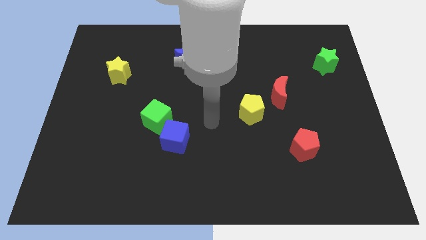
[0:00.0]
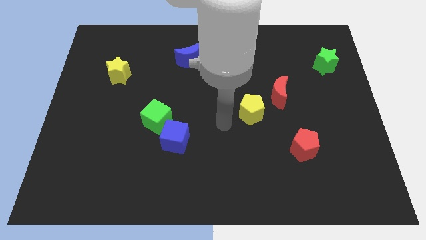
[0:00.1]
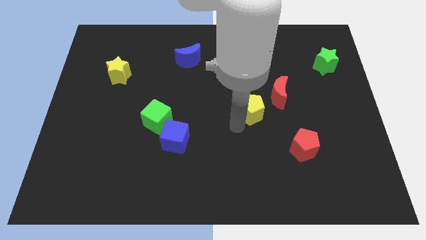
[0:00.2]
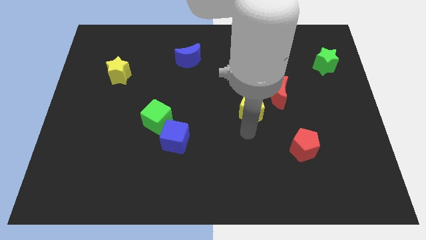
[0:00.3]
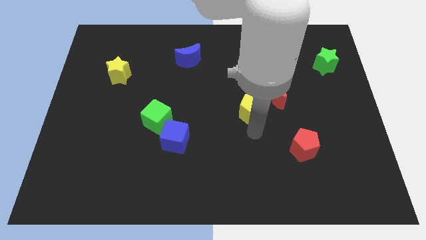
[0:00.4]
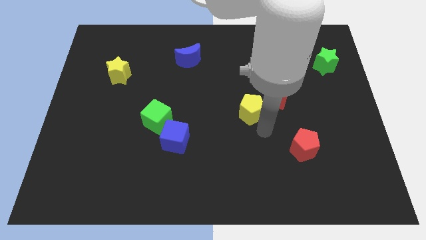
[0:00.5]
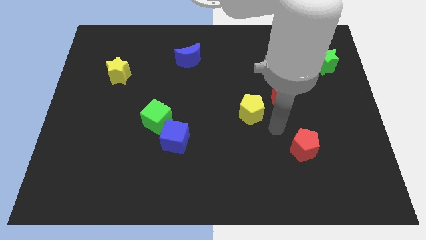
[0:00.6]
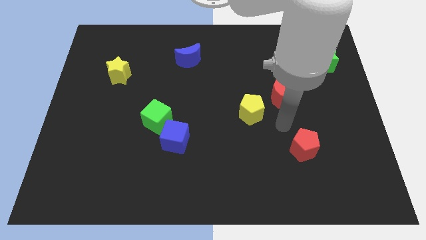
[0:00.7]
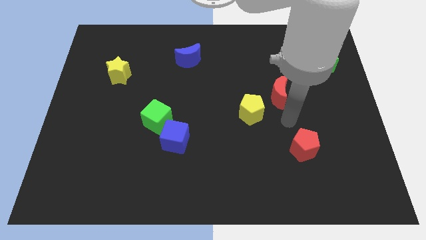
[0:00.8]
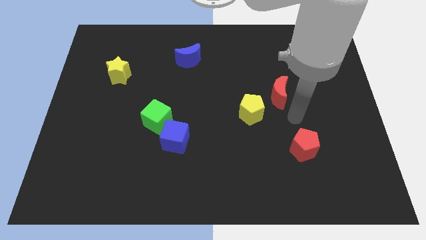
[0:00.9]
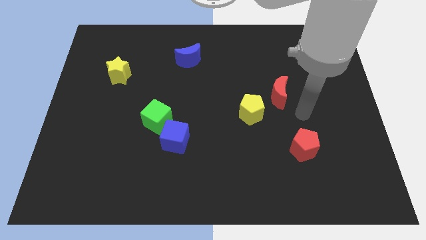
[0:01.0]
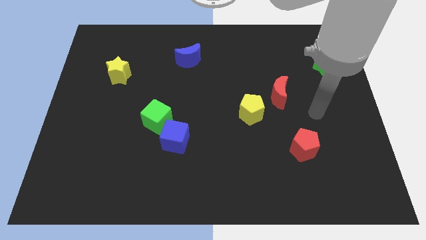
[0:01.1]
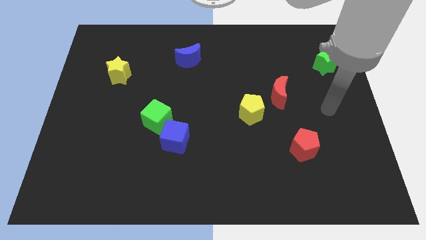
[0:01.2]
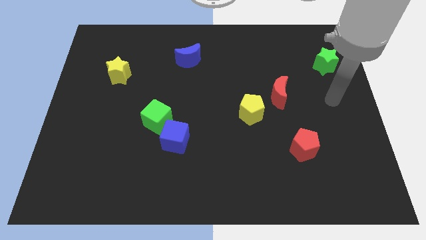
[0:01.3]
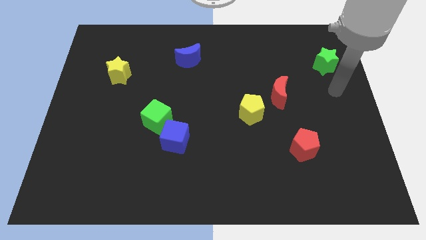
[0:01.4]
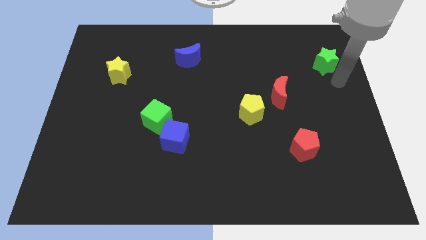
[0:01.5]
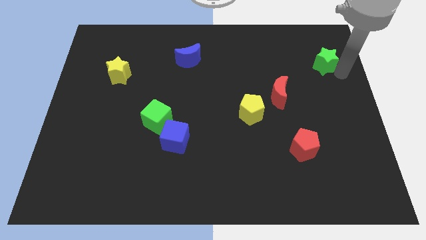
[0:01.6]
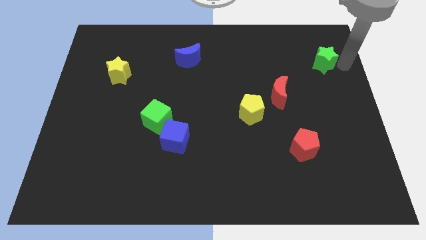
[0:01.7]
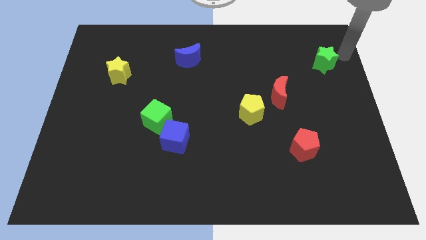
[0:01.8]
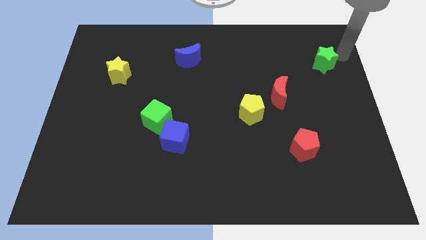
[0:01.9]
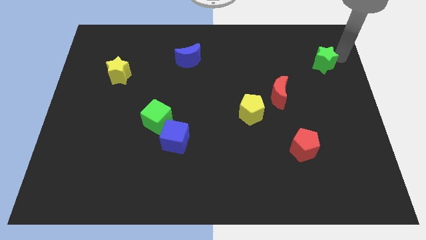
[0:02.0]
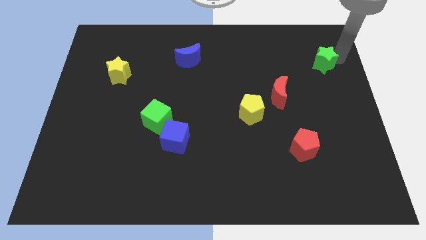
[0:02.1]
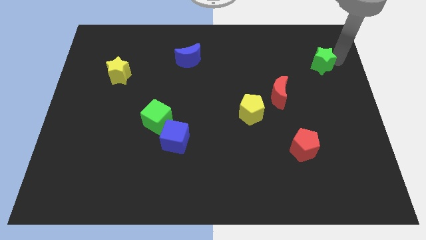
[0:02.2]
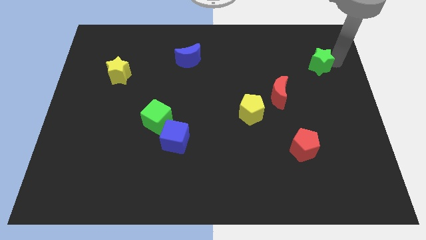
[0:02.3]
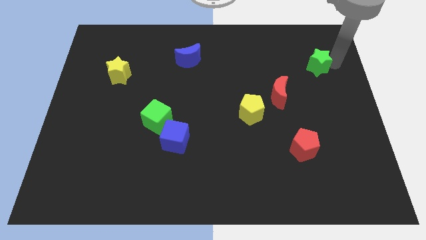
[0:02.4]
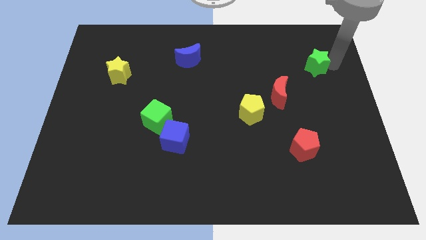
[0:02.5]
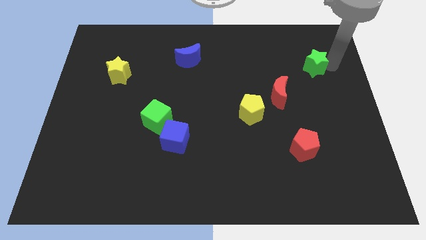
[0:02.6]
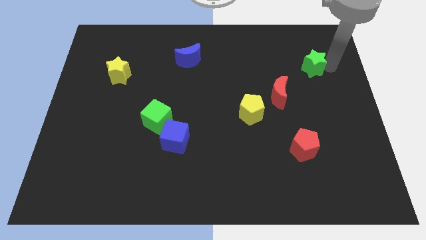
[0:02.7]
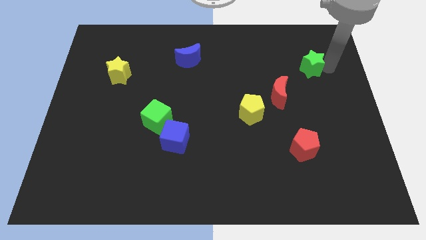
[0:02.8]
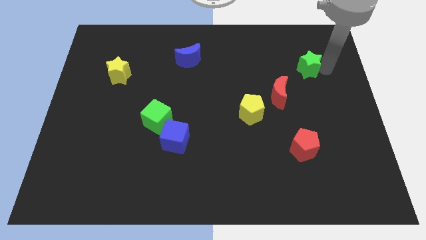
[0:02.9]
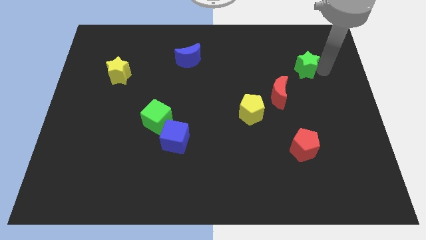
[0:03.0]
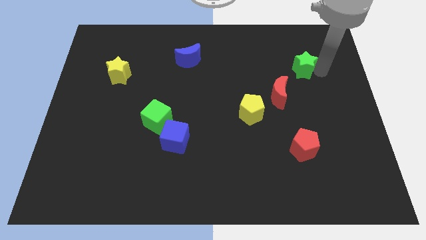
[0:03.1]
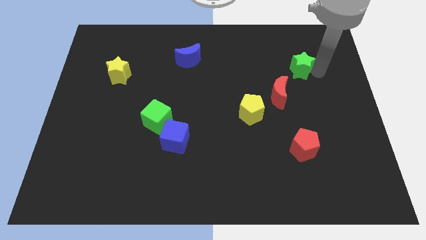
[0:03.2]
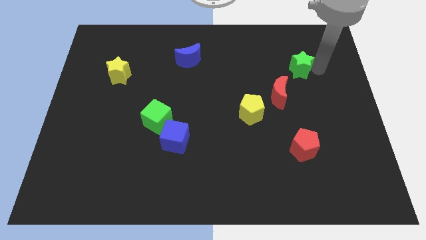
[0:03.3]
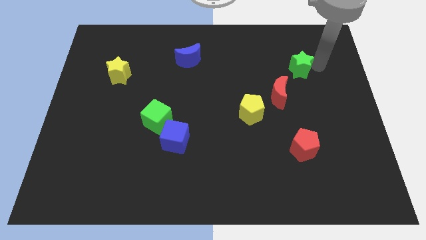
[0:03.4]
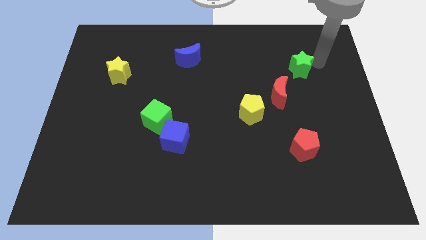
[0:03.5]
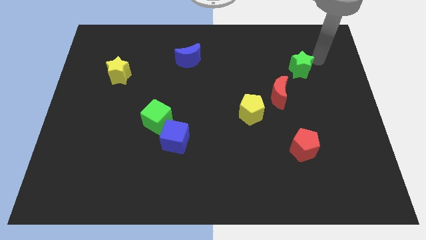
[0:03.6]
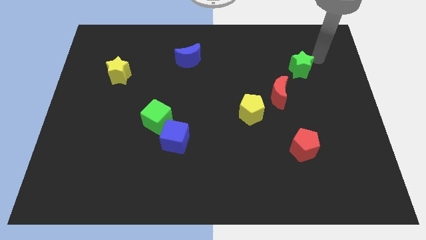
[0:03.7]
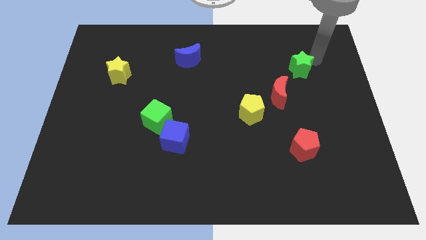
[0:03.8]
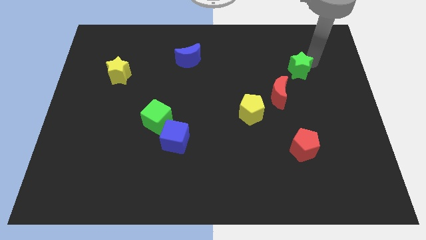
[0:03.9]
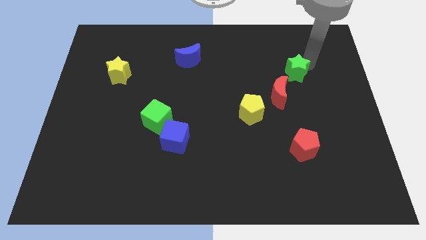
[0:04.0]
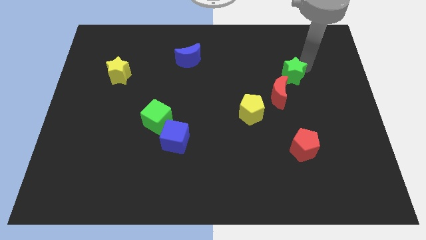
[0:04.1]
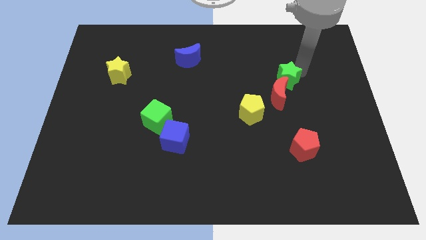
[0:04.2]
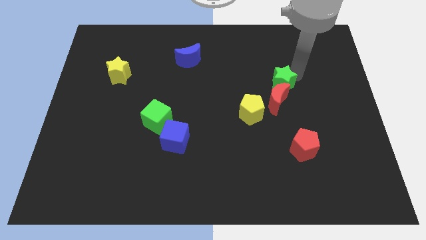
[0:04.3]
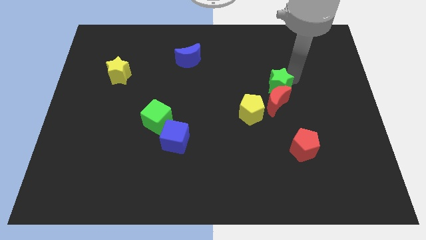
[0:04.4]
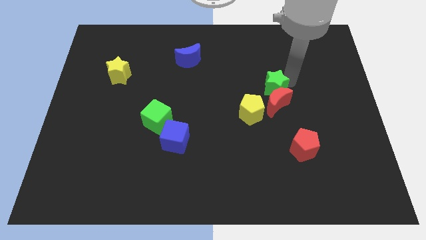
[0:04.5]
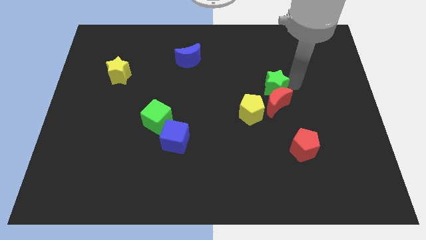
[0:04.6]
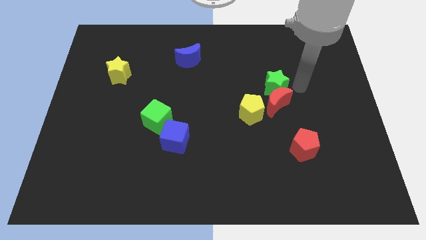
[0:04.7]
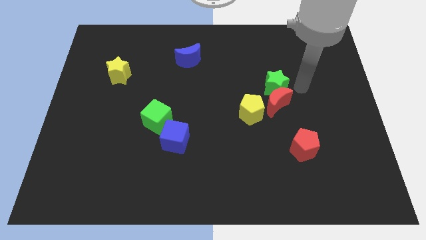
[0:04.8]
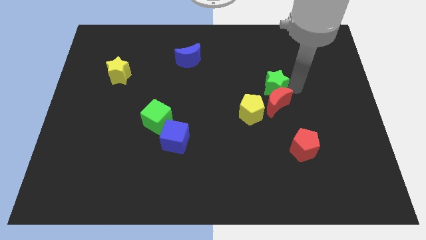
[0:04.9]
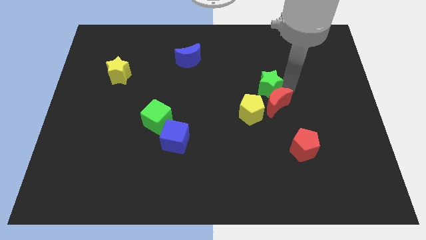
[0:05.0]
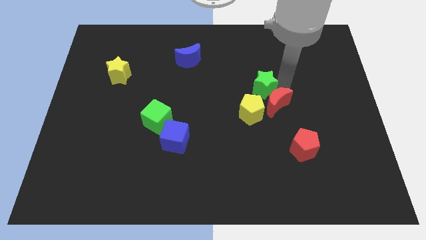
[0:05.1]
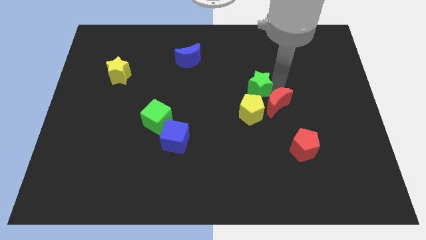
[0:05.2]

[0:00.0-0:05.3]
move the green star to the center of the board

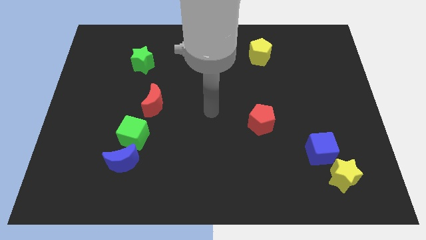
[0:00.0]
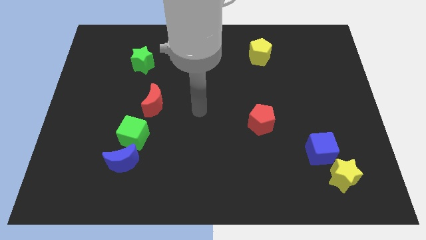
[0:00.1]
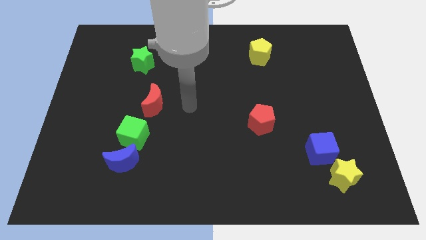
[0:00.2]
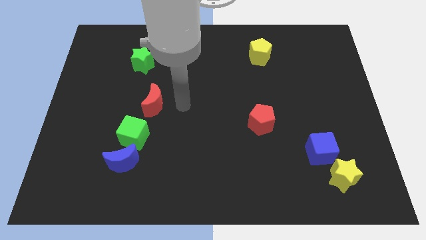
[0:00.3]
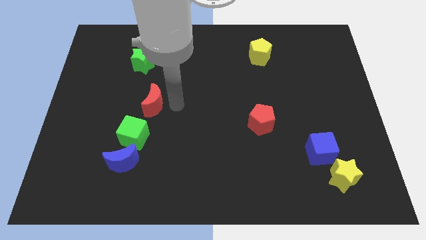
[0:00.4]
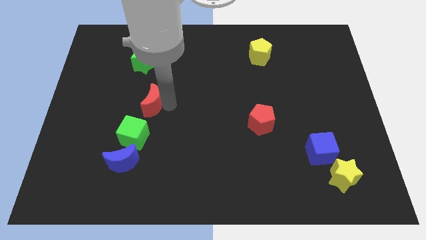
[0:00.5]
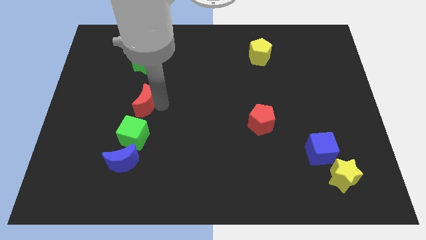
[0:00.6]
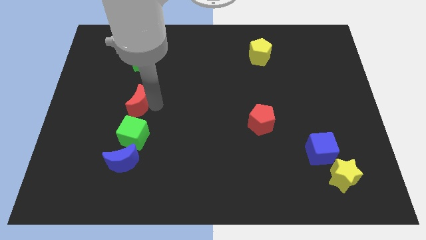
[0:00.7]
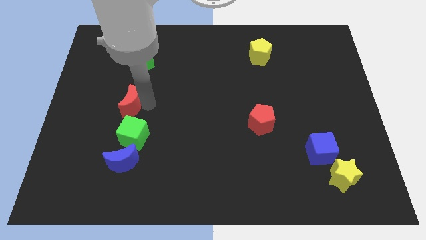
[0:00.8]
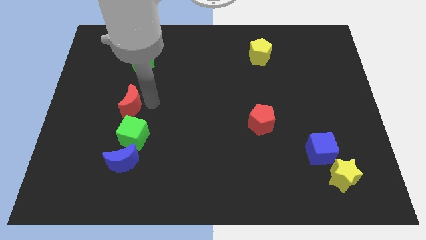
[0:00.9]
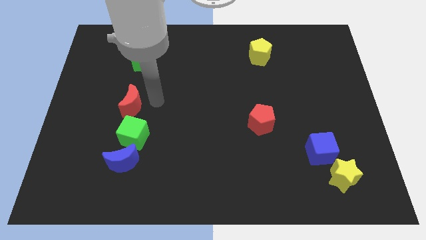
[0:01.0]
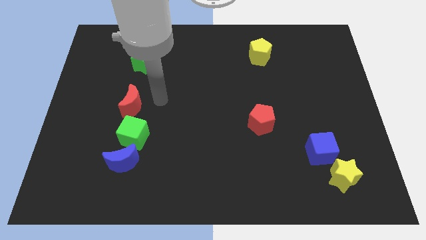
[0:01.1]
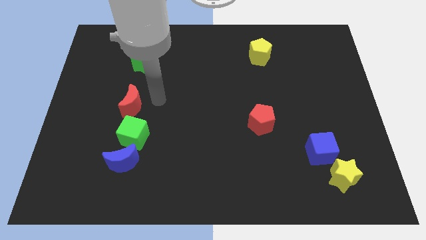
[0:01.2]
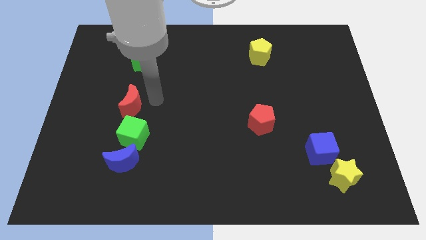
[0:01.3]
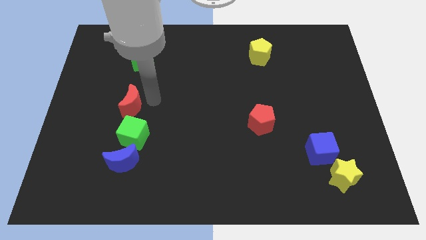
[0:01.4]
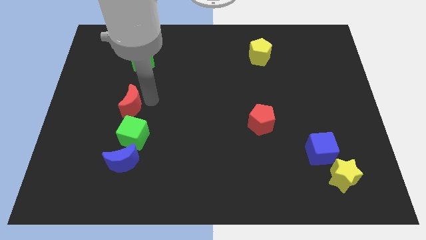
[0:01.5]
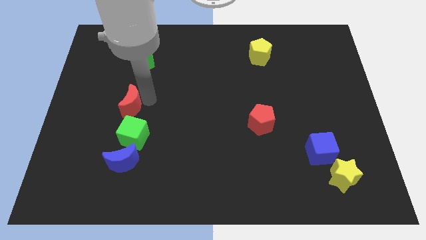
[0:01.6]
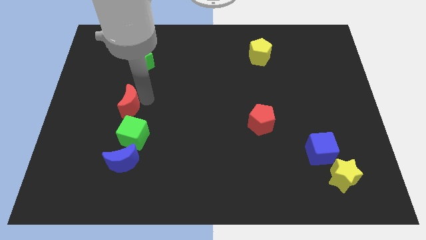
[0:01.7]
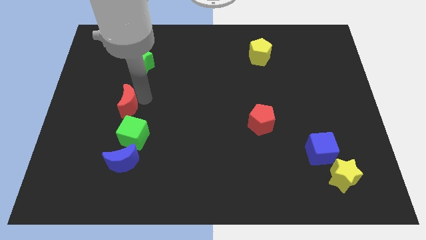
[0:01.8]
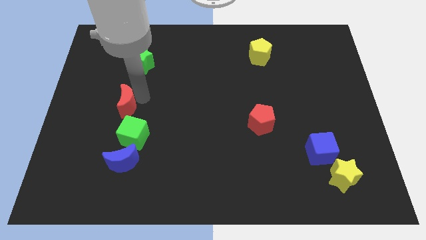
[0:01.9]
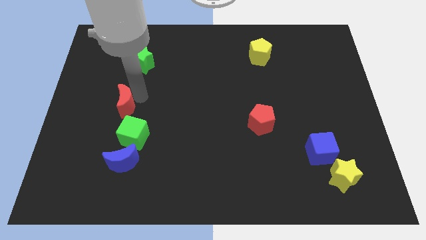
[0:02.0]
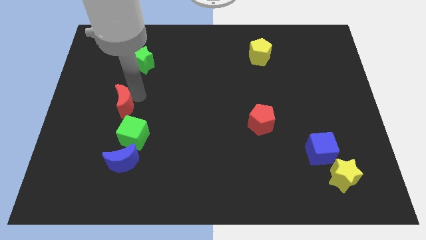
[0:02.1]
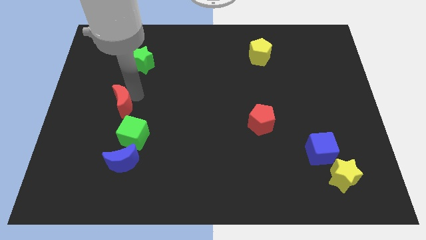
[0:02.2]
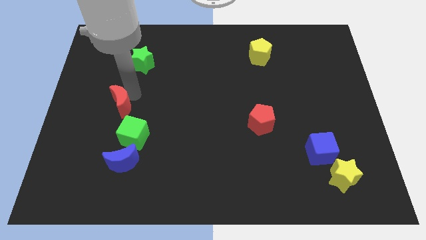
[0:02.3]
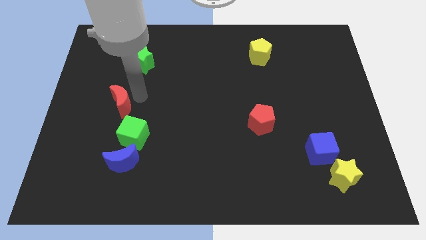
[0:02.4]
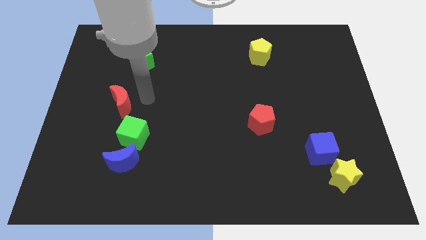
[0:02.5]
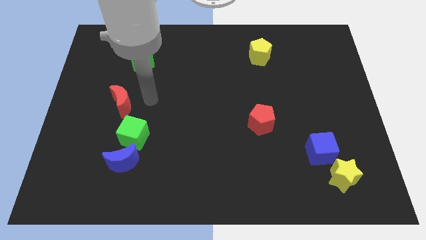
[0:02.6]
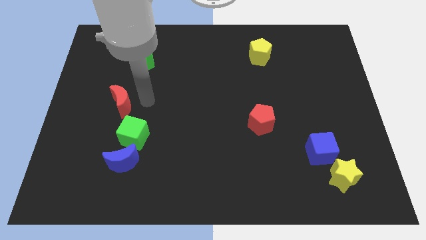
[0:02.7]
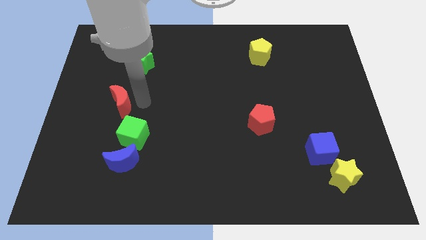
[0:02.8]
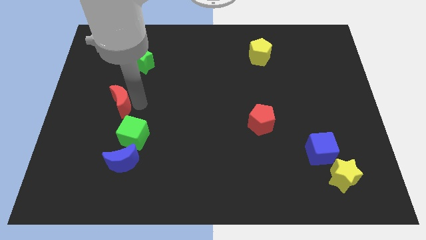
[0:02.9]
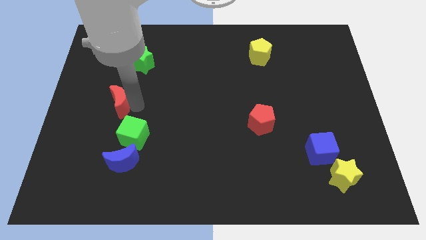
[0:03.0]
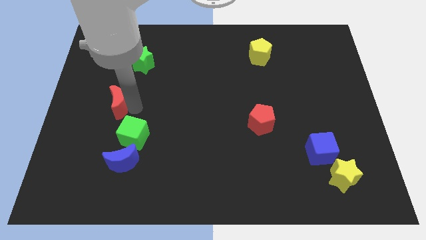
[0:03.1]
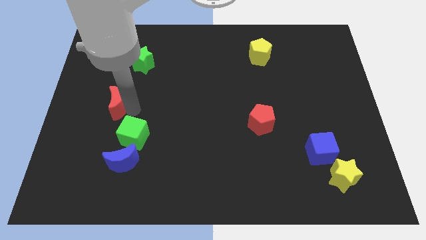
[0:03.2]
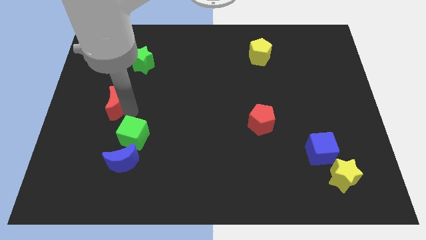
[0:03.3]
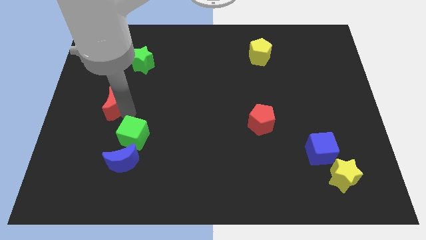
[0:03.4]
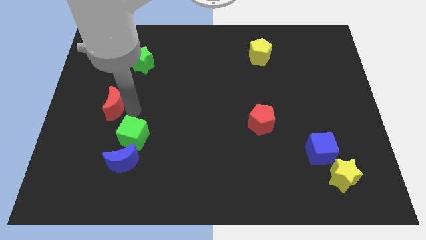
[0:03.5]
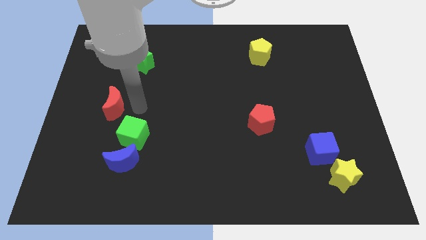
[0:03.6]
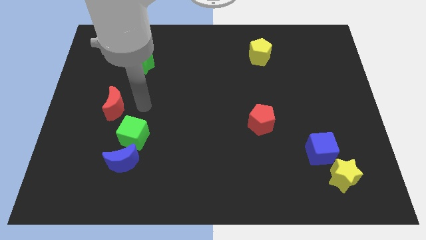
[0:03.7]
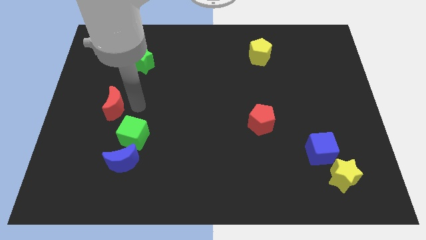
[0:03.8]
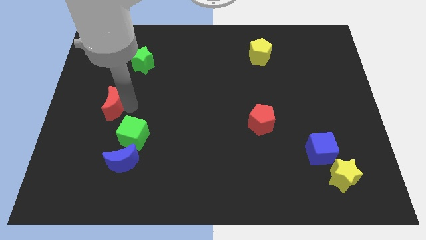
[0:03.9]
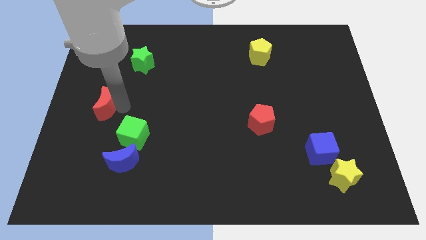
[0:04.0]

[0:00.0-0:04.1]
slide the red moon to the left side
